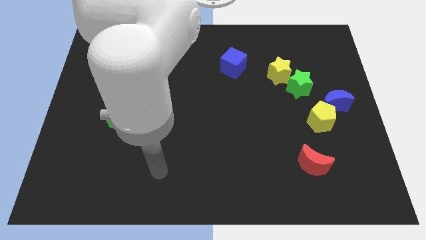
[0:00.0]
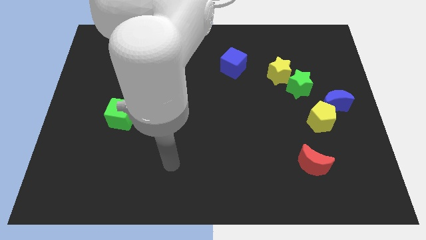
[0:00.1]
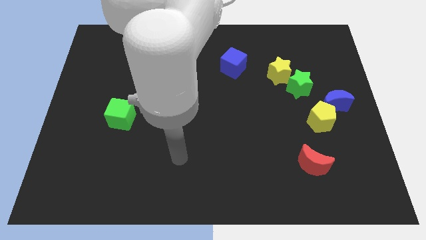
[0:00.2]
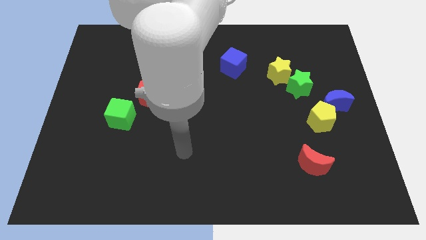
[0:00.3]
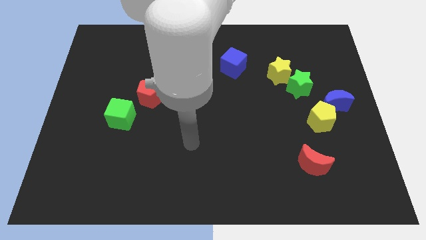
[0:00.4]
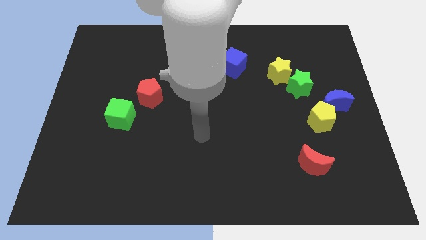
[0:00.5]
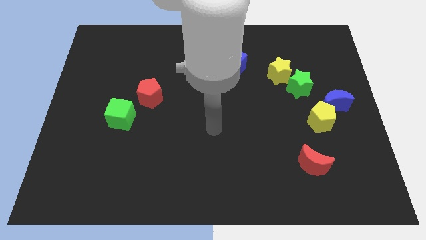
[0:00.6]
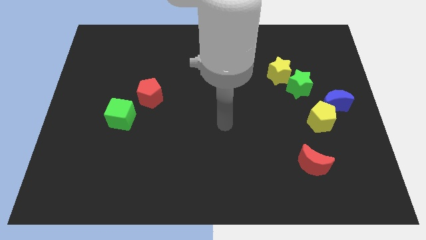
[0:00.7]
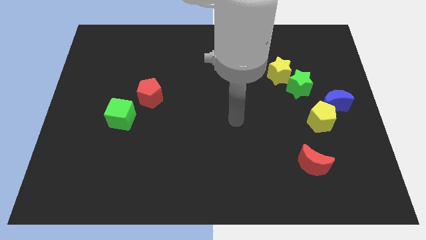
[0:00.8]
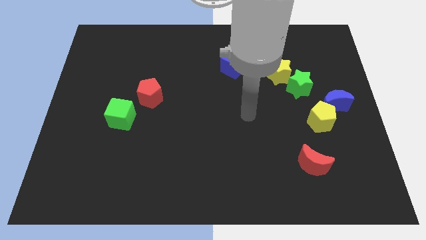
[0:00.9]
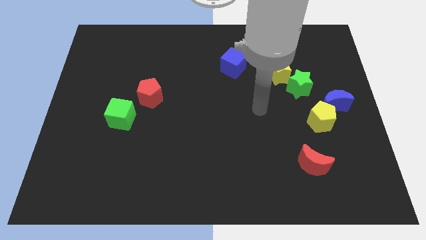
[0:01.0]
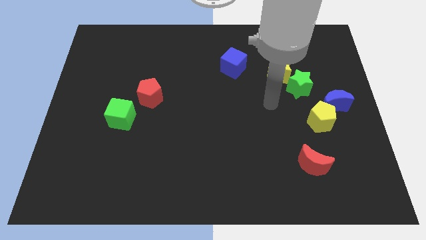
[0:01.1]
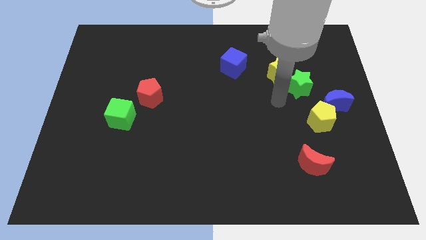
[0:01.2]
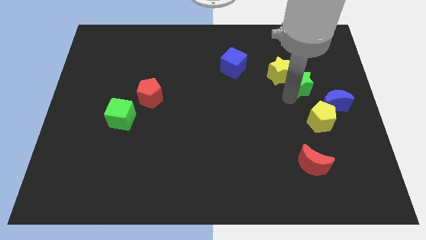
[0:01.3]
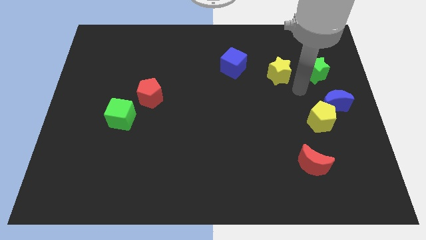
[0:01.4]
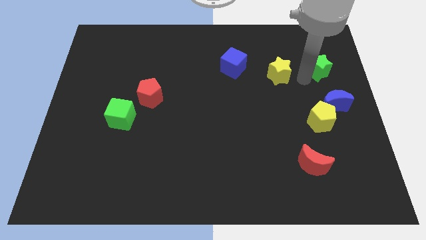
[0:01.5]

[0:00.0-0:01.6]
move the yellow star away from the green star

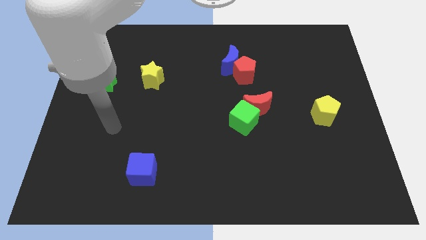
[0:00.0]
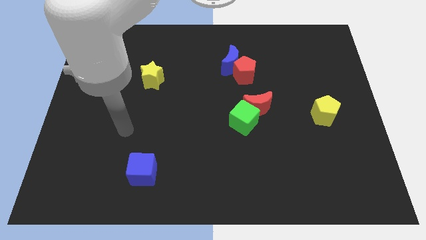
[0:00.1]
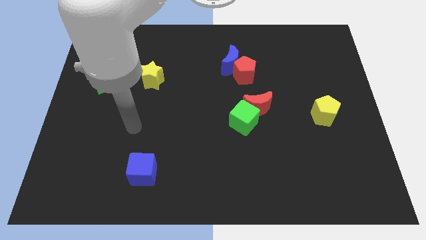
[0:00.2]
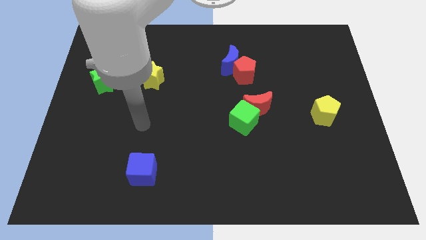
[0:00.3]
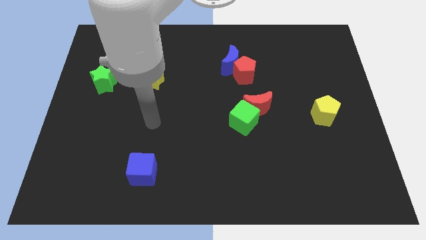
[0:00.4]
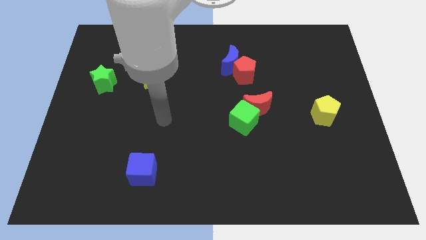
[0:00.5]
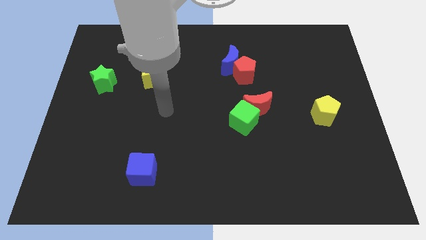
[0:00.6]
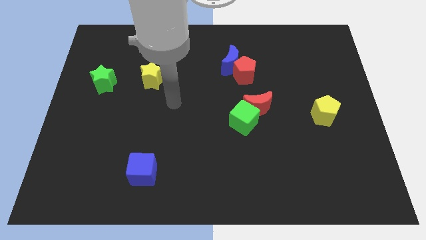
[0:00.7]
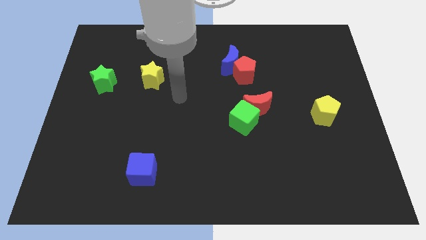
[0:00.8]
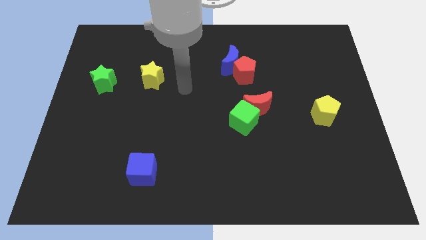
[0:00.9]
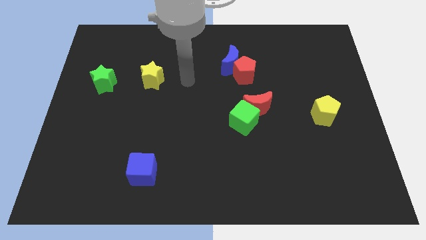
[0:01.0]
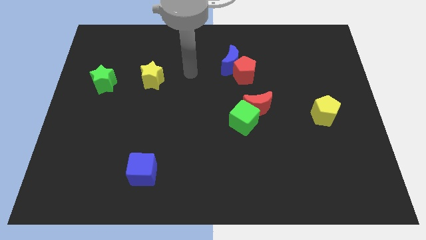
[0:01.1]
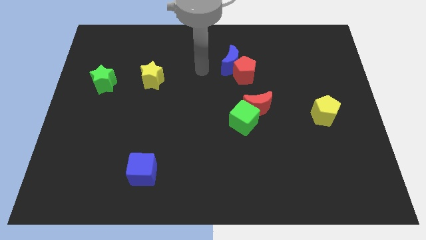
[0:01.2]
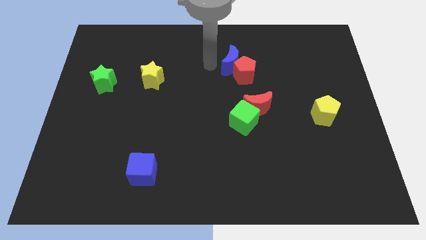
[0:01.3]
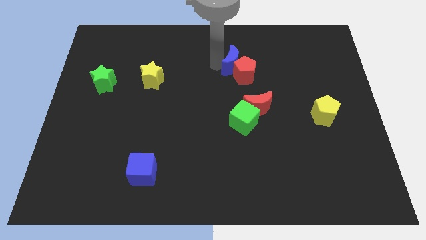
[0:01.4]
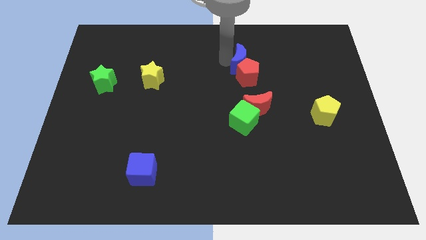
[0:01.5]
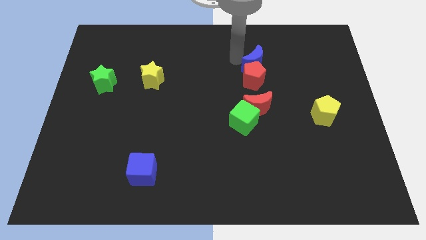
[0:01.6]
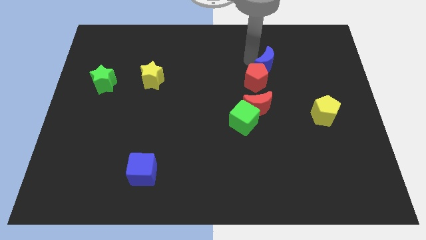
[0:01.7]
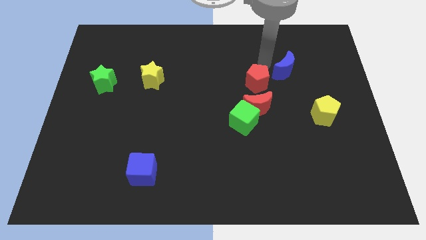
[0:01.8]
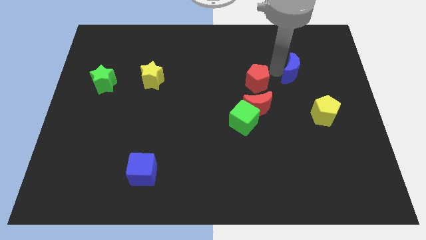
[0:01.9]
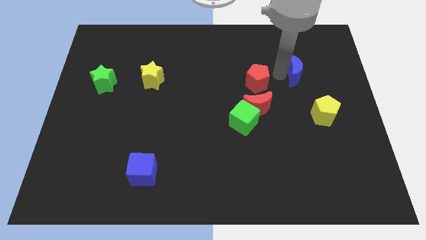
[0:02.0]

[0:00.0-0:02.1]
separate the red pentagon from the blue moon

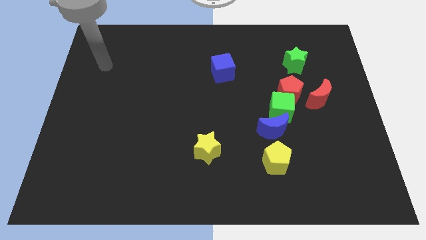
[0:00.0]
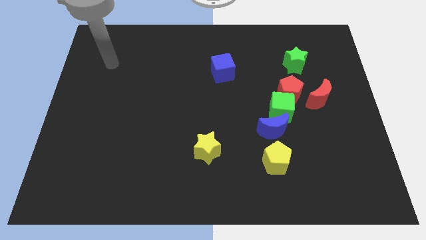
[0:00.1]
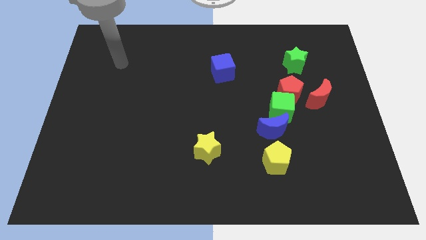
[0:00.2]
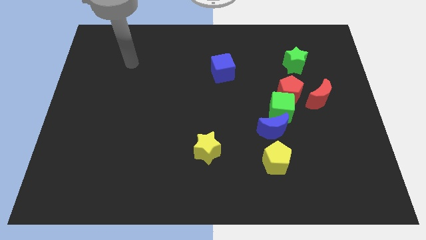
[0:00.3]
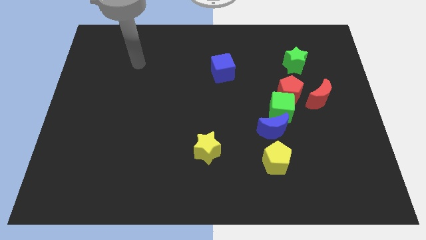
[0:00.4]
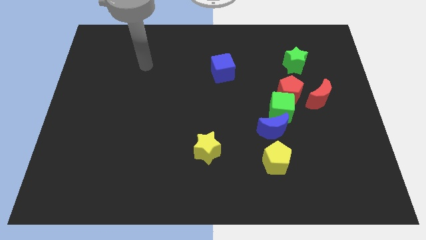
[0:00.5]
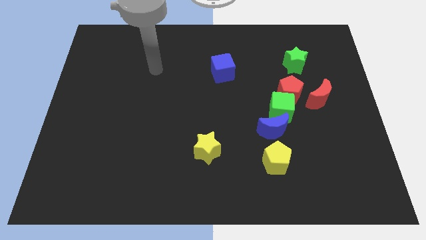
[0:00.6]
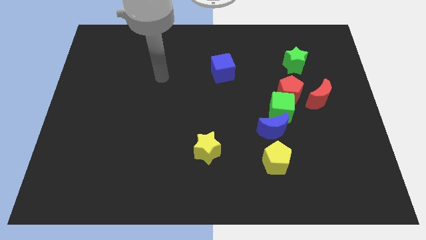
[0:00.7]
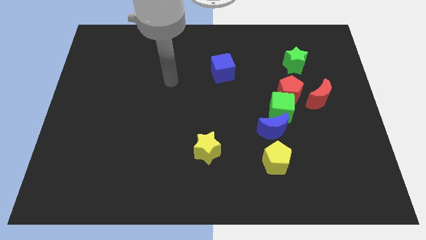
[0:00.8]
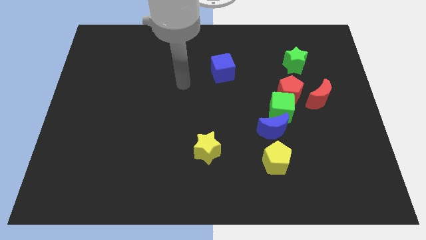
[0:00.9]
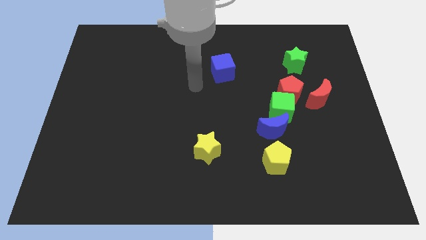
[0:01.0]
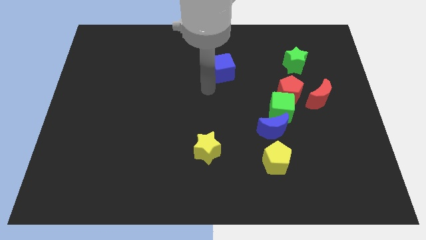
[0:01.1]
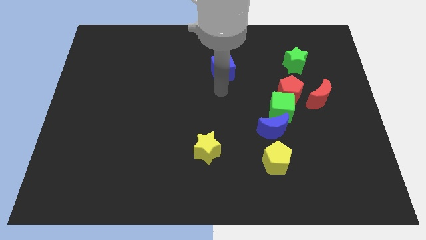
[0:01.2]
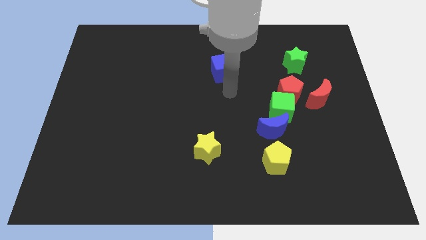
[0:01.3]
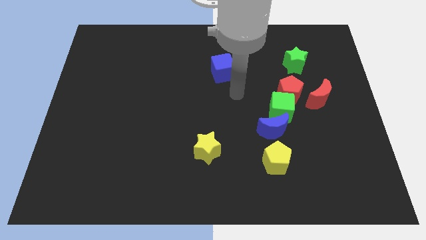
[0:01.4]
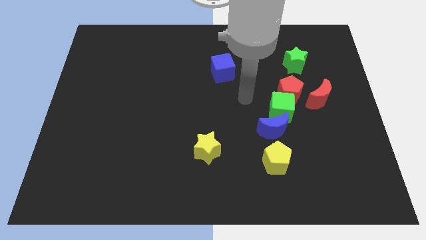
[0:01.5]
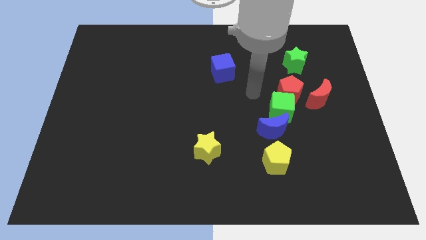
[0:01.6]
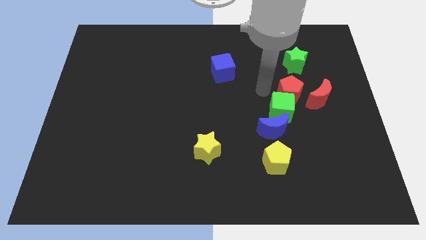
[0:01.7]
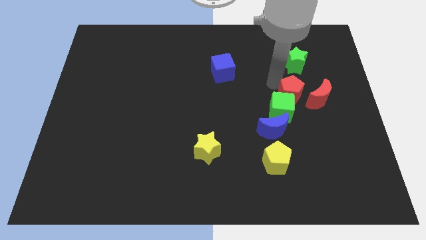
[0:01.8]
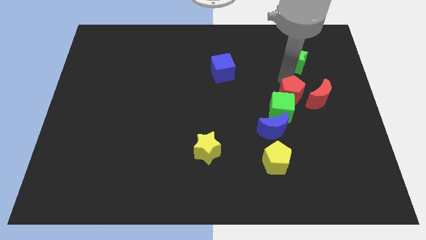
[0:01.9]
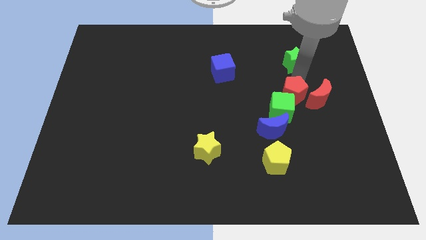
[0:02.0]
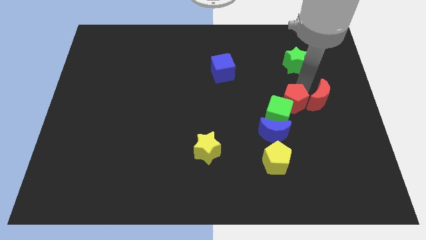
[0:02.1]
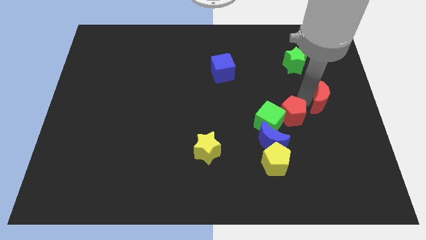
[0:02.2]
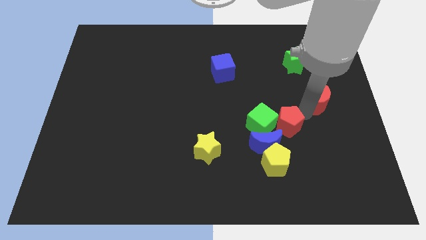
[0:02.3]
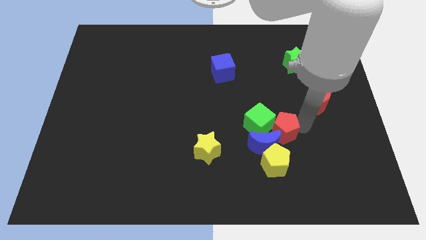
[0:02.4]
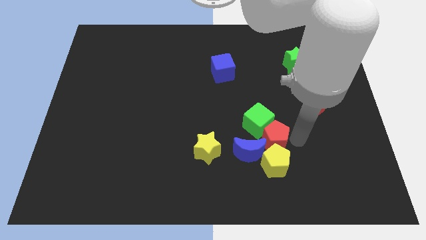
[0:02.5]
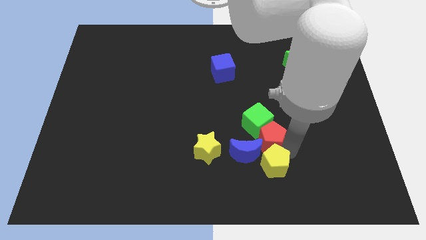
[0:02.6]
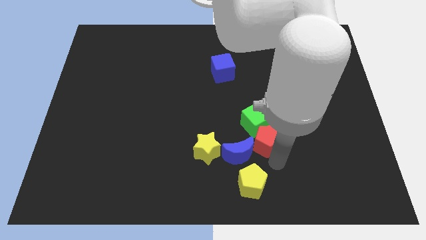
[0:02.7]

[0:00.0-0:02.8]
separate the red pentagon from the green cube and red moon

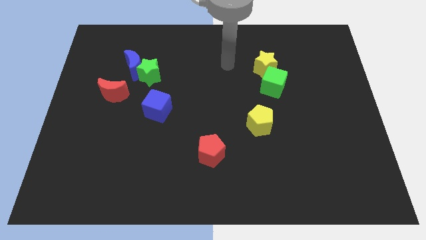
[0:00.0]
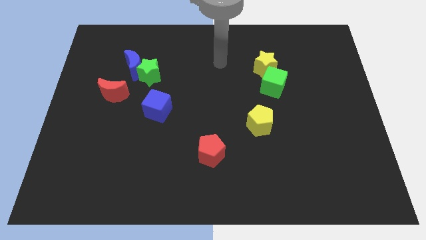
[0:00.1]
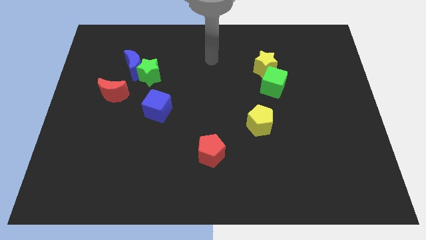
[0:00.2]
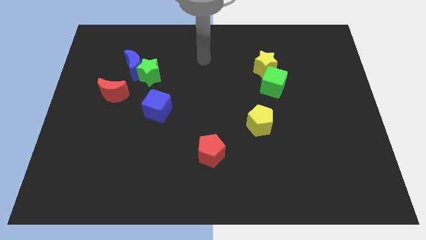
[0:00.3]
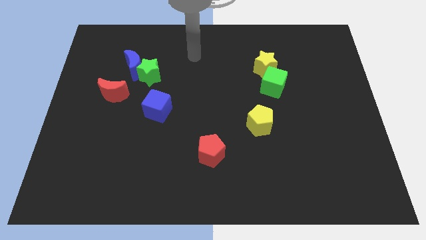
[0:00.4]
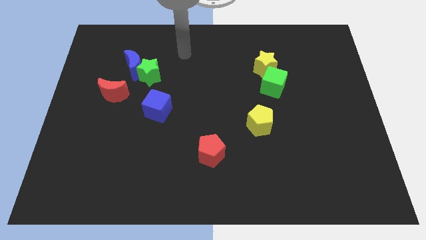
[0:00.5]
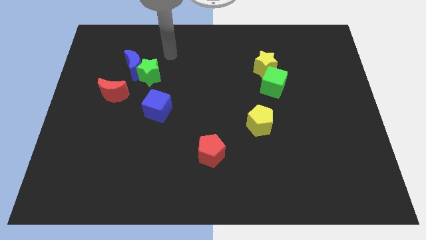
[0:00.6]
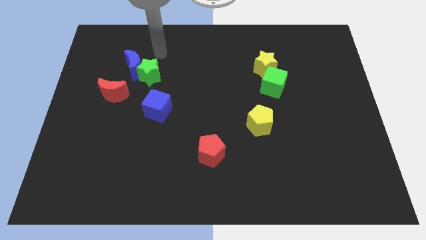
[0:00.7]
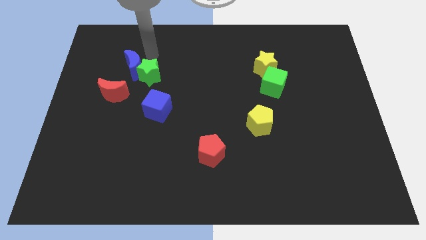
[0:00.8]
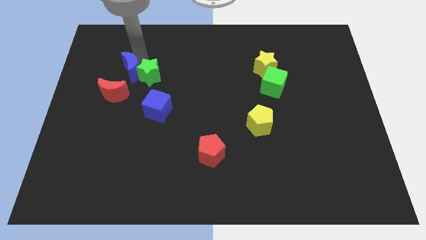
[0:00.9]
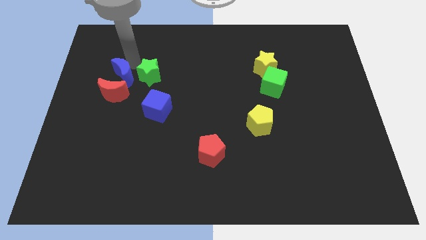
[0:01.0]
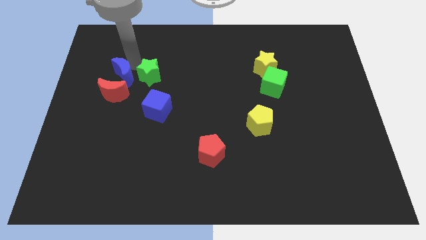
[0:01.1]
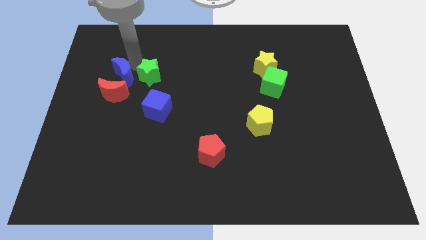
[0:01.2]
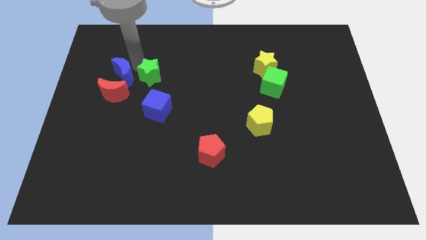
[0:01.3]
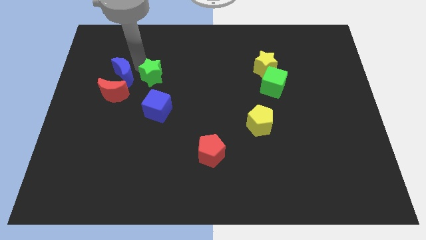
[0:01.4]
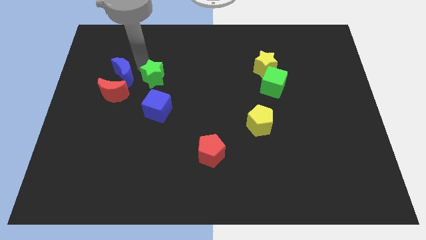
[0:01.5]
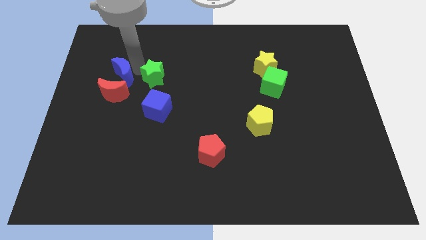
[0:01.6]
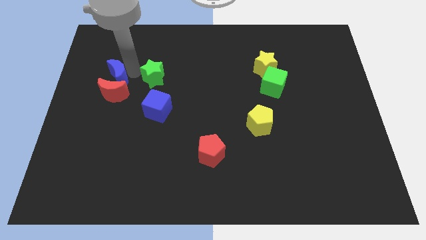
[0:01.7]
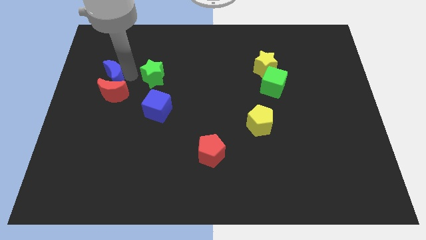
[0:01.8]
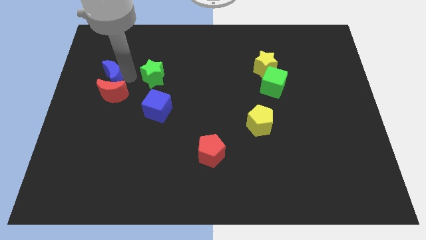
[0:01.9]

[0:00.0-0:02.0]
separate the green star from the blue moon

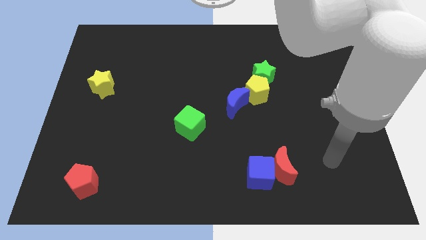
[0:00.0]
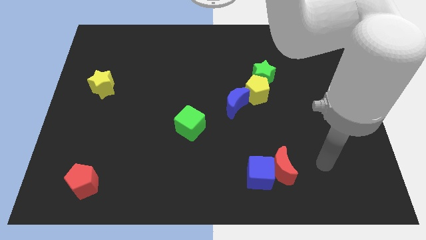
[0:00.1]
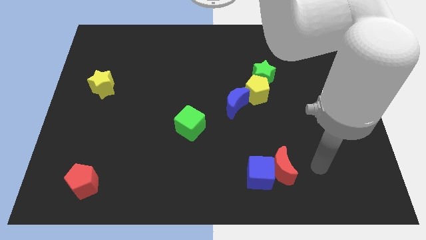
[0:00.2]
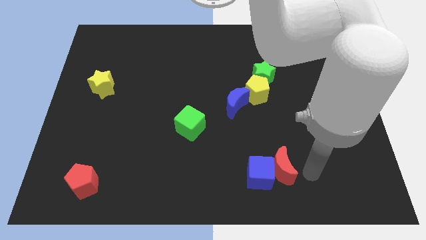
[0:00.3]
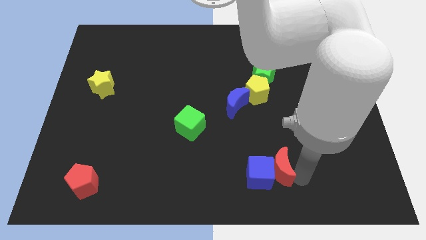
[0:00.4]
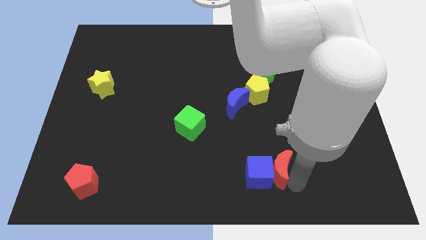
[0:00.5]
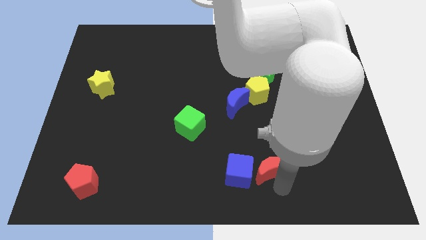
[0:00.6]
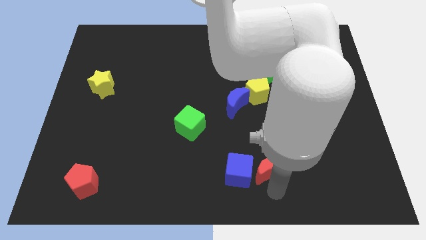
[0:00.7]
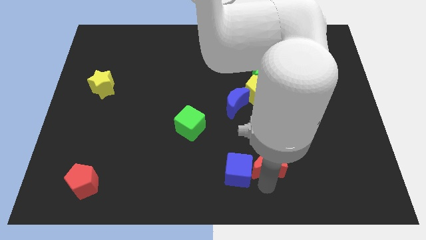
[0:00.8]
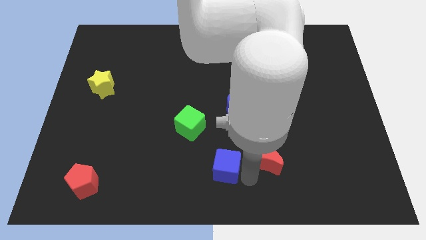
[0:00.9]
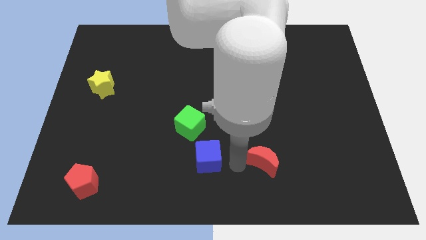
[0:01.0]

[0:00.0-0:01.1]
move the red moon away from the blue cube
